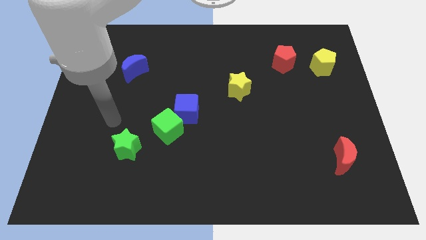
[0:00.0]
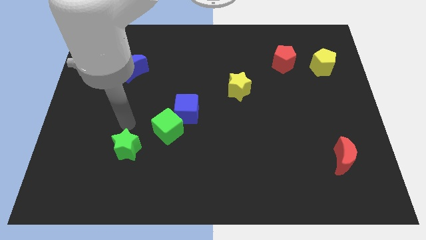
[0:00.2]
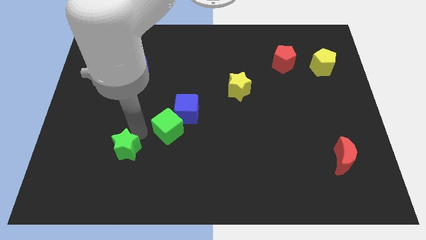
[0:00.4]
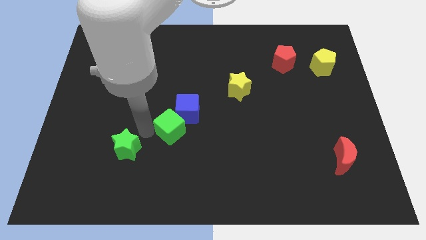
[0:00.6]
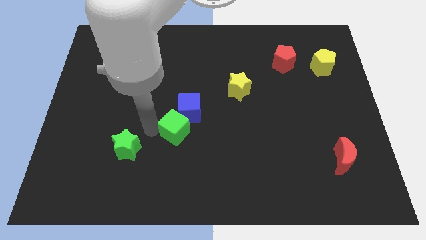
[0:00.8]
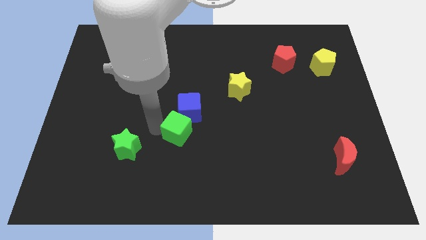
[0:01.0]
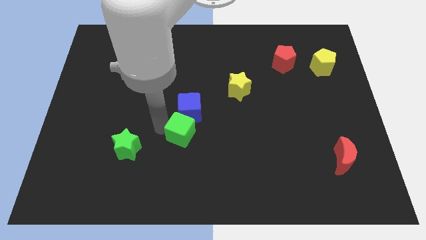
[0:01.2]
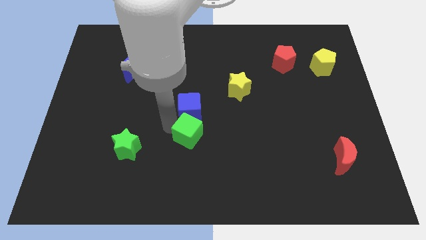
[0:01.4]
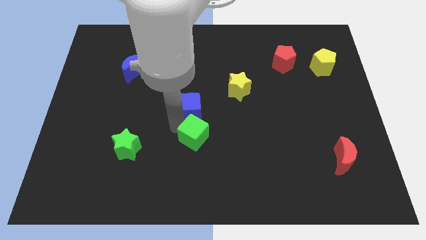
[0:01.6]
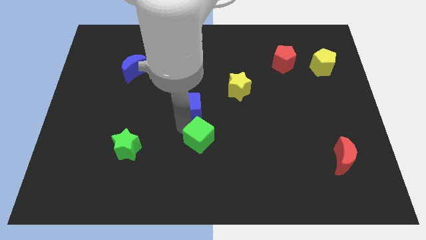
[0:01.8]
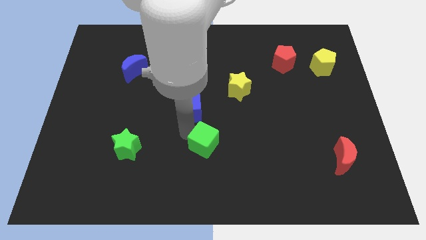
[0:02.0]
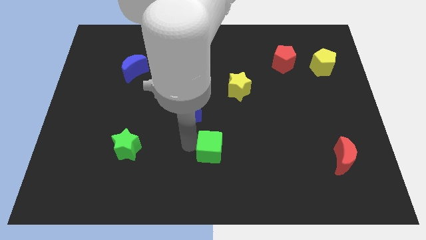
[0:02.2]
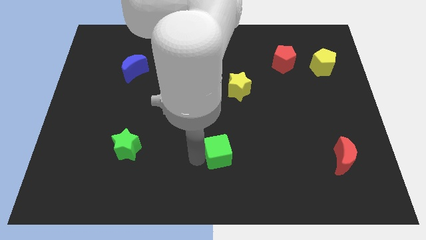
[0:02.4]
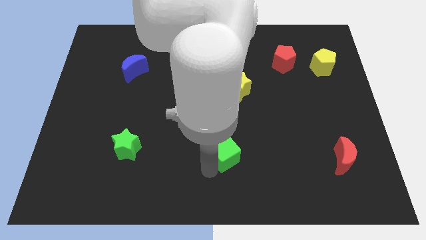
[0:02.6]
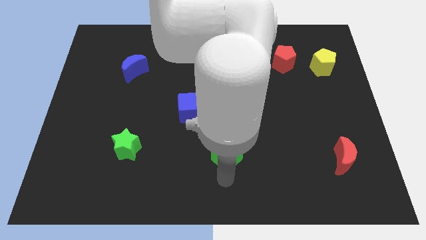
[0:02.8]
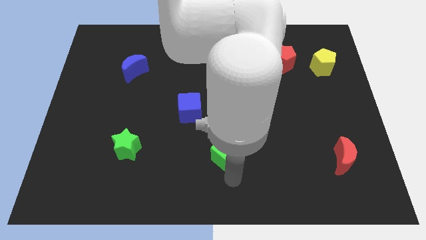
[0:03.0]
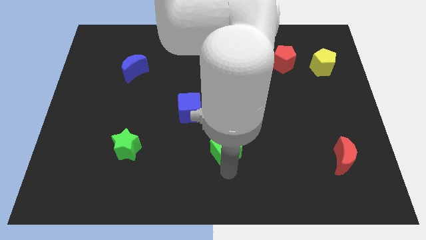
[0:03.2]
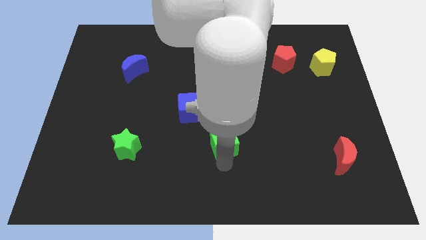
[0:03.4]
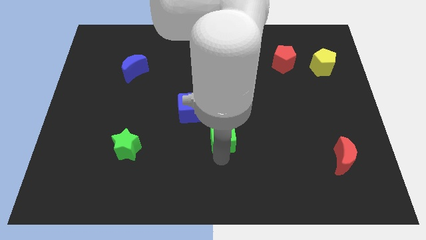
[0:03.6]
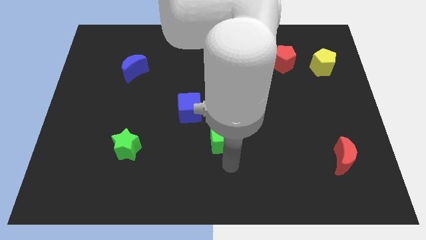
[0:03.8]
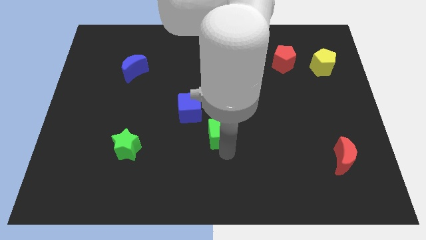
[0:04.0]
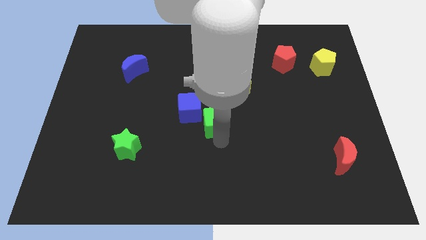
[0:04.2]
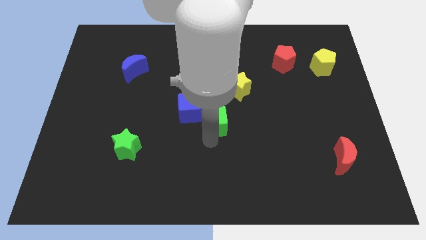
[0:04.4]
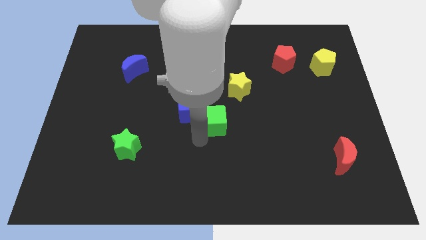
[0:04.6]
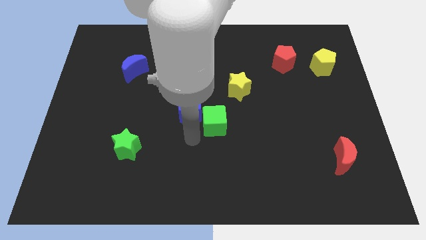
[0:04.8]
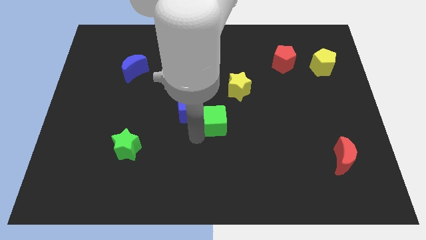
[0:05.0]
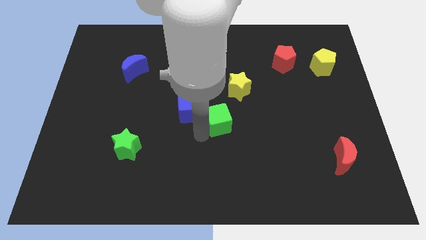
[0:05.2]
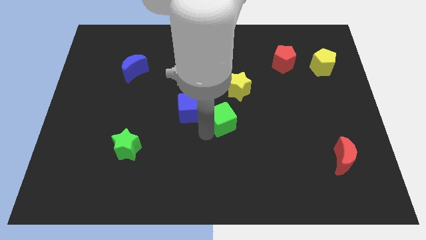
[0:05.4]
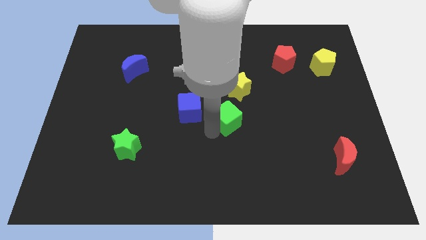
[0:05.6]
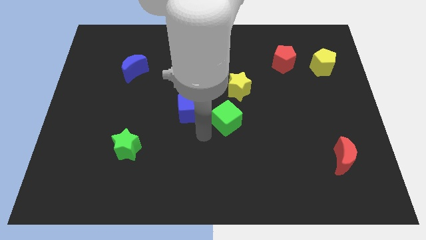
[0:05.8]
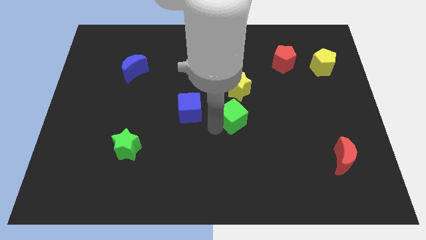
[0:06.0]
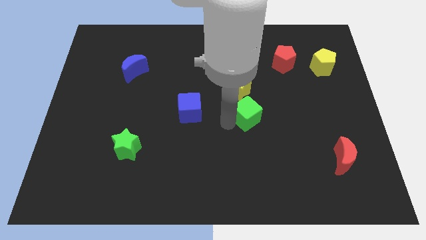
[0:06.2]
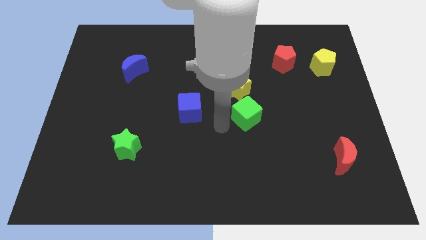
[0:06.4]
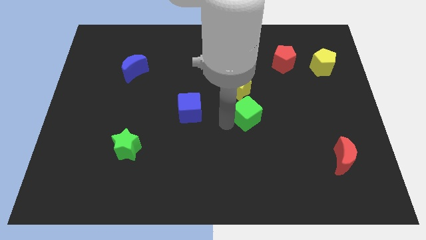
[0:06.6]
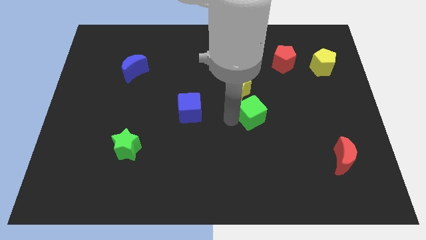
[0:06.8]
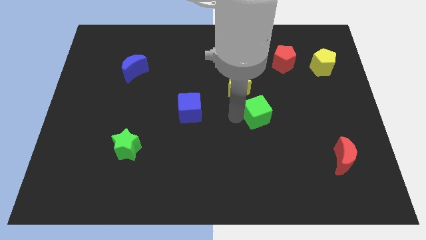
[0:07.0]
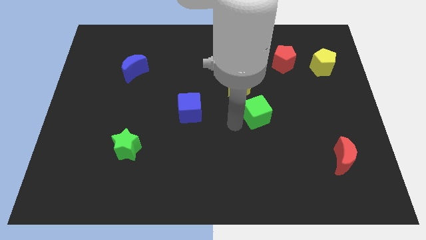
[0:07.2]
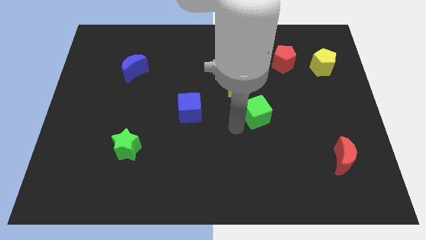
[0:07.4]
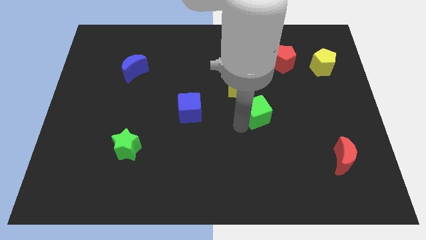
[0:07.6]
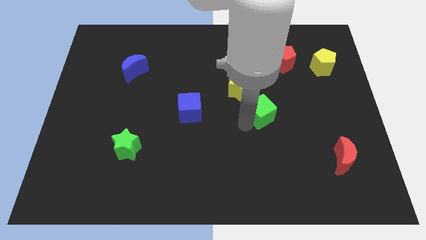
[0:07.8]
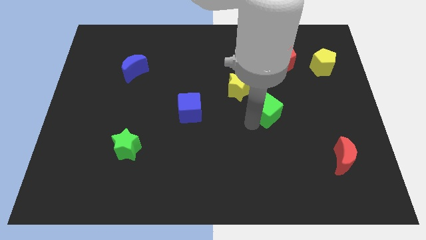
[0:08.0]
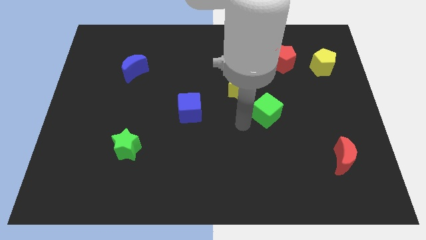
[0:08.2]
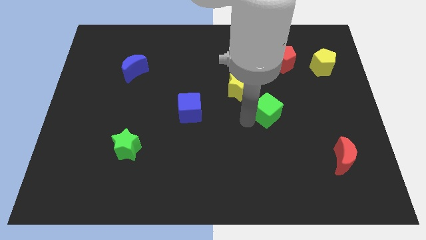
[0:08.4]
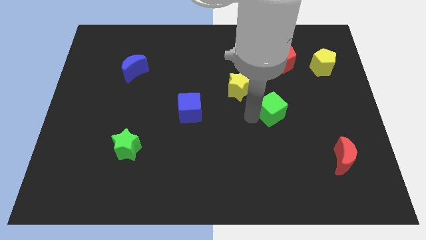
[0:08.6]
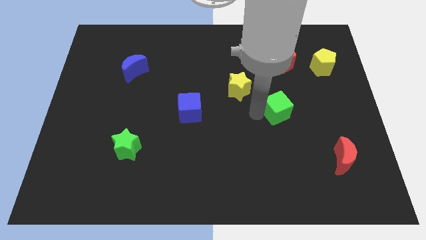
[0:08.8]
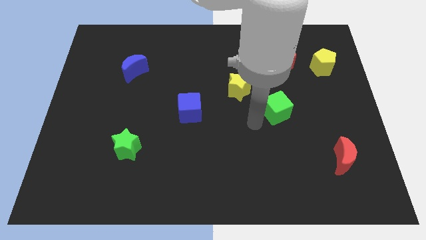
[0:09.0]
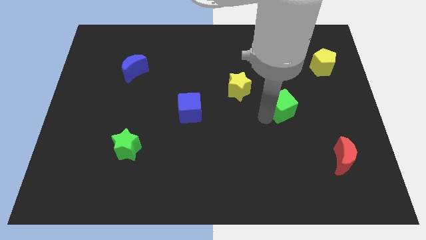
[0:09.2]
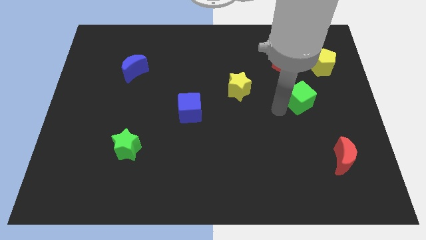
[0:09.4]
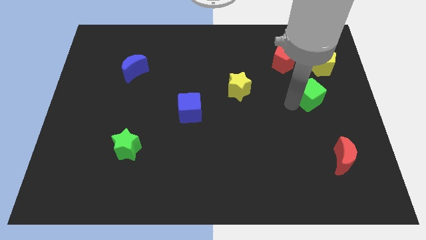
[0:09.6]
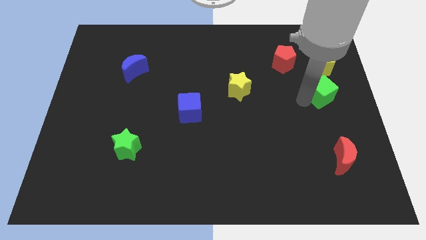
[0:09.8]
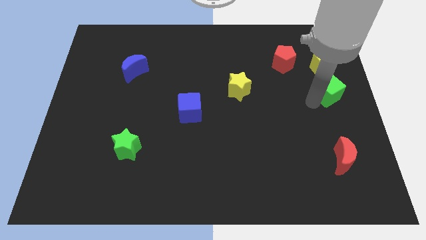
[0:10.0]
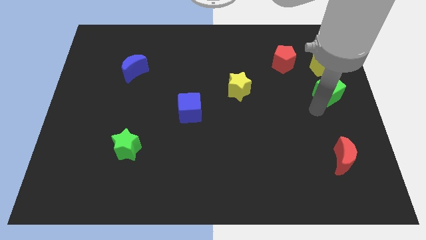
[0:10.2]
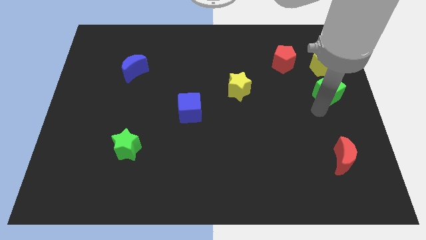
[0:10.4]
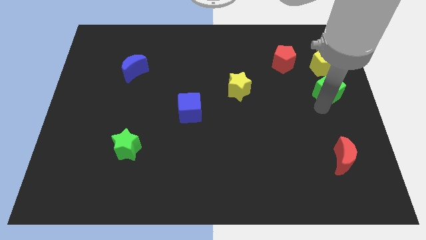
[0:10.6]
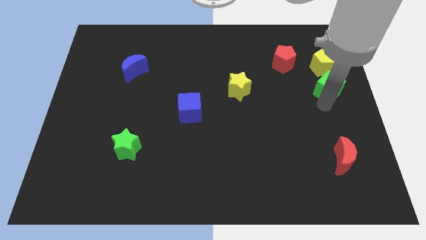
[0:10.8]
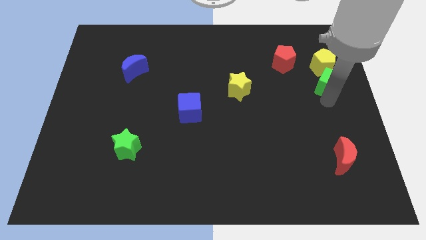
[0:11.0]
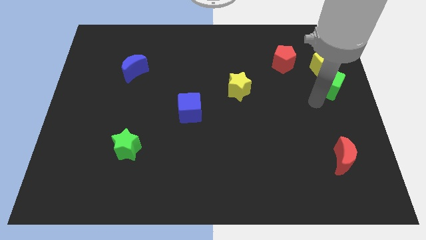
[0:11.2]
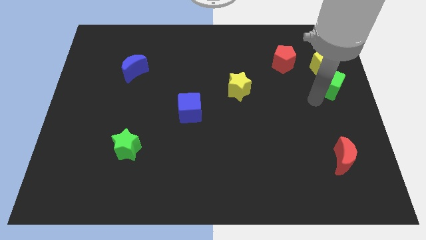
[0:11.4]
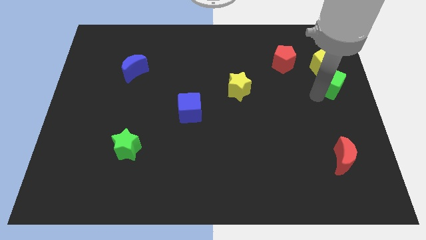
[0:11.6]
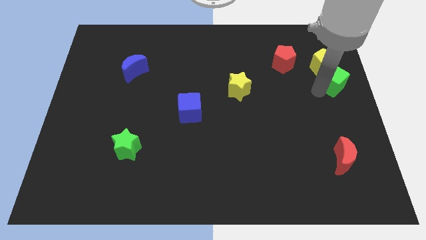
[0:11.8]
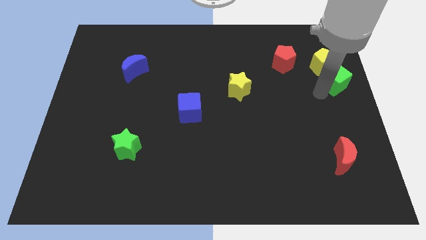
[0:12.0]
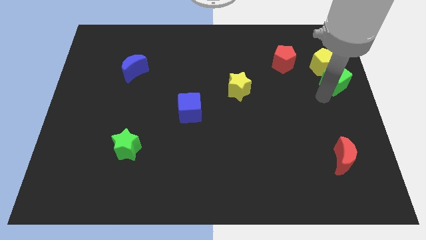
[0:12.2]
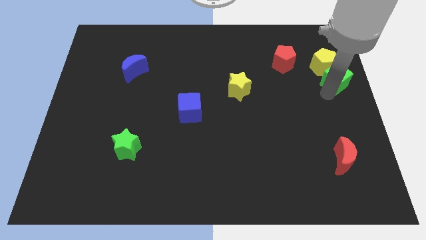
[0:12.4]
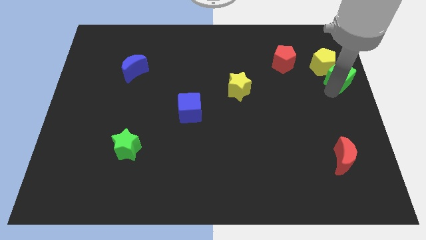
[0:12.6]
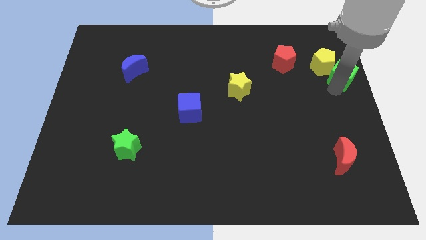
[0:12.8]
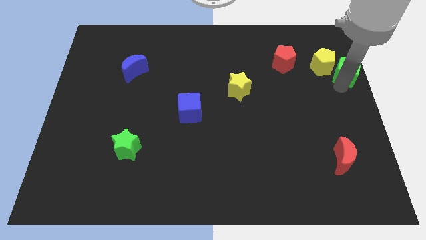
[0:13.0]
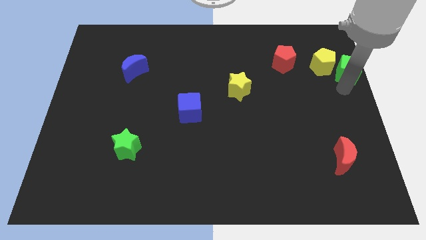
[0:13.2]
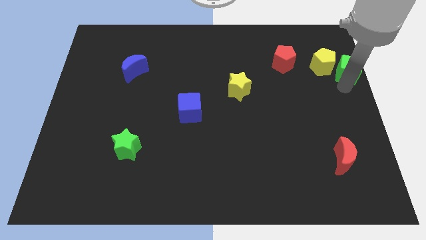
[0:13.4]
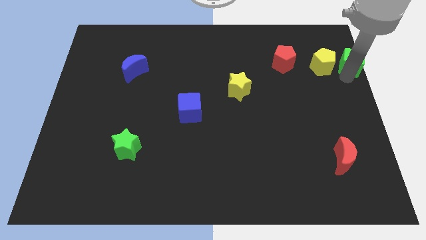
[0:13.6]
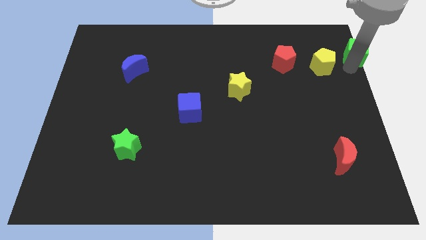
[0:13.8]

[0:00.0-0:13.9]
put the green cube to the top right of the board

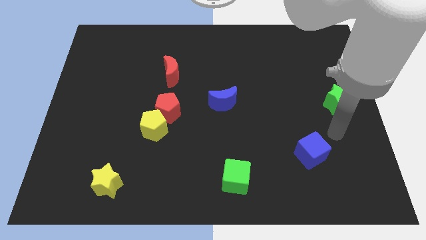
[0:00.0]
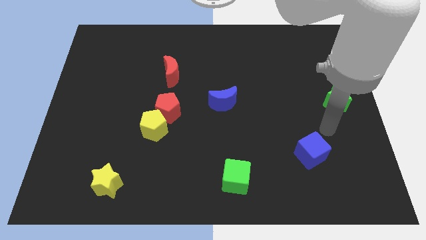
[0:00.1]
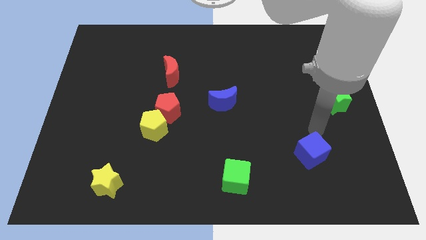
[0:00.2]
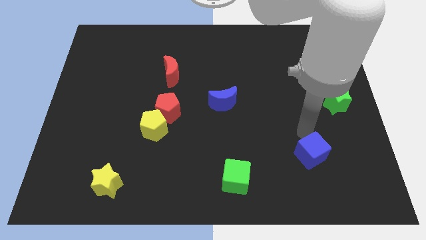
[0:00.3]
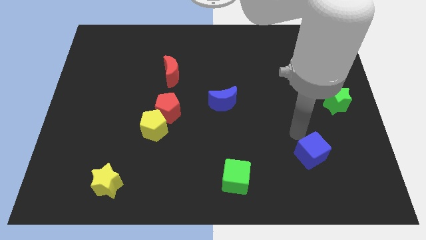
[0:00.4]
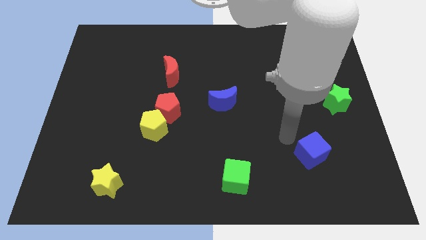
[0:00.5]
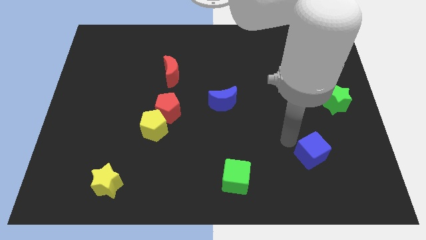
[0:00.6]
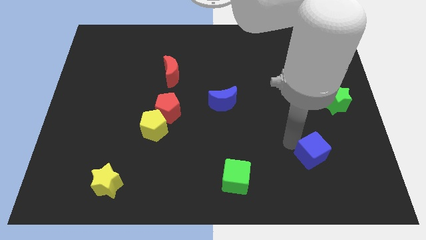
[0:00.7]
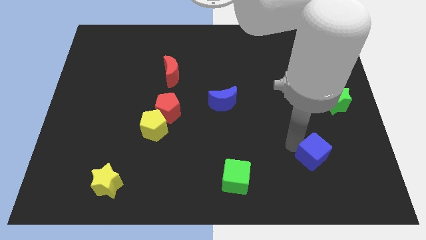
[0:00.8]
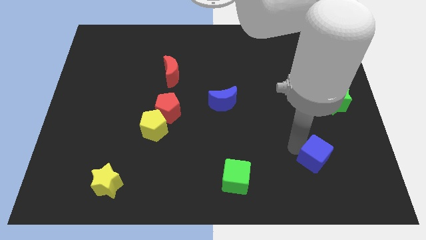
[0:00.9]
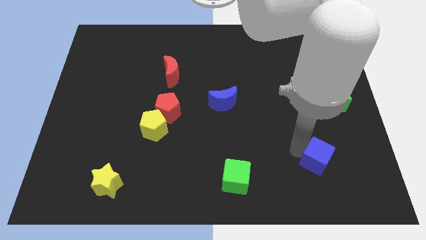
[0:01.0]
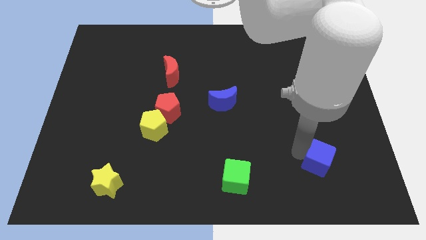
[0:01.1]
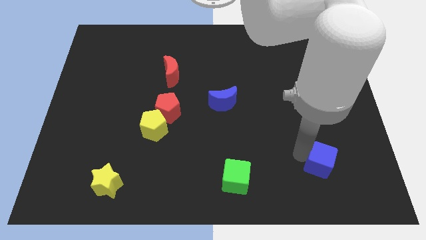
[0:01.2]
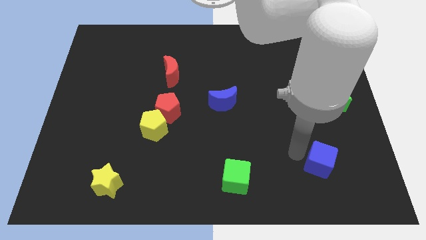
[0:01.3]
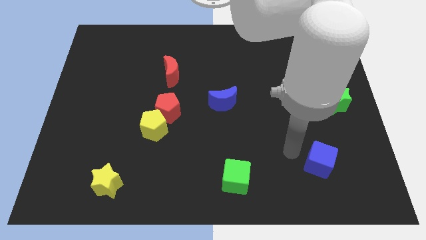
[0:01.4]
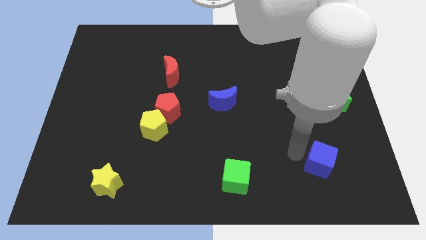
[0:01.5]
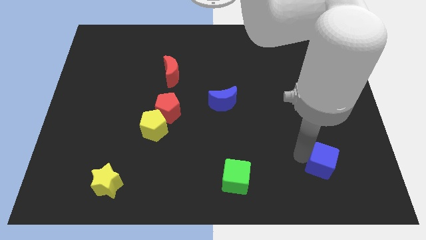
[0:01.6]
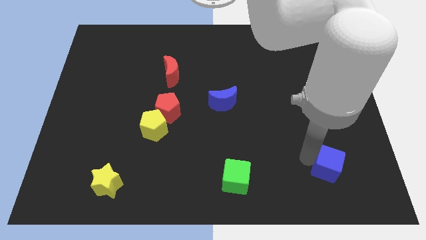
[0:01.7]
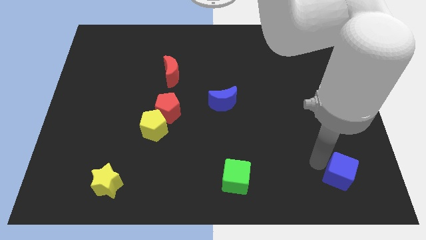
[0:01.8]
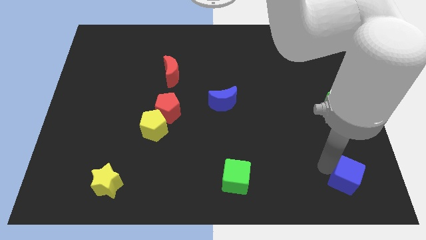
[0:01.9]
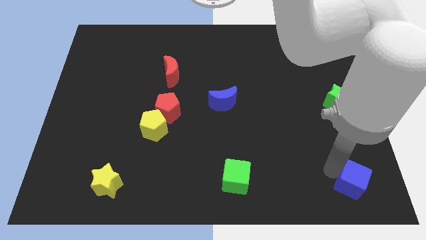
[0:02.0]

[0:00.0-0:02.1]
move the blue cube to the bottom right corner
